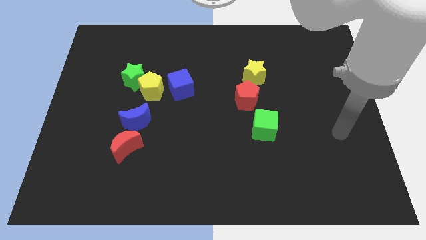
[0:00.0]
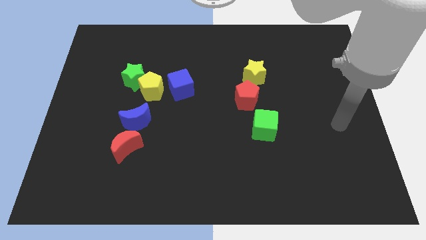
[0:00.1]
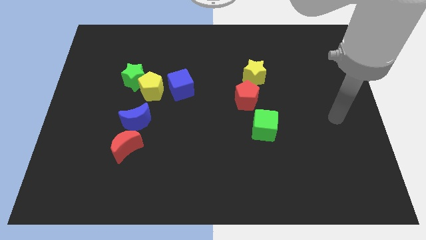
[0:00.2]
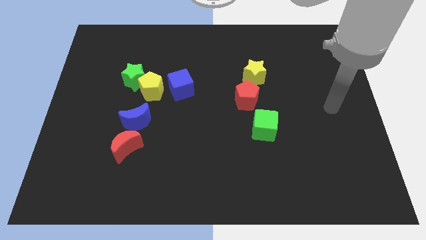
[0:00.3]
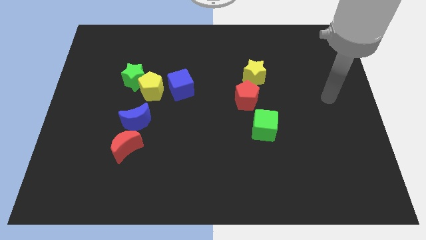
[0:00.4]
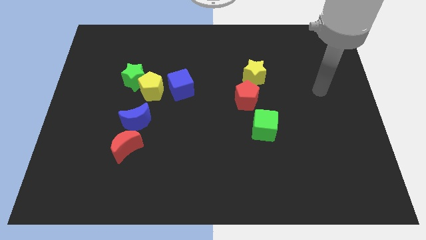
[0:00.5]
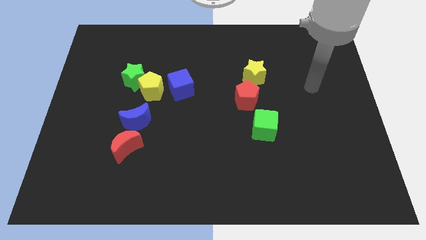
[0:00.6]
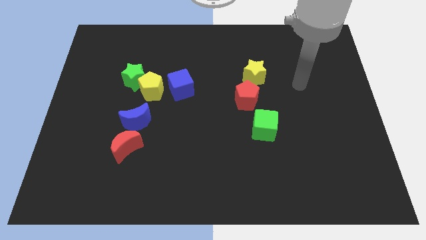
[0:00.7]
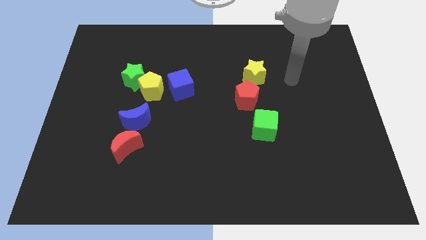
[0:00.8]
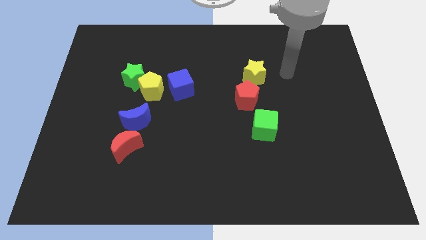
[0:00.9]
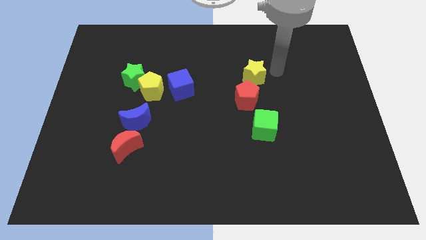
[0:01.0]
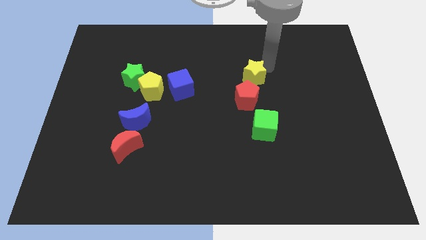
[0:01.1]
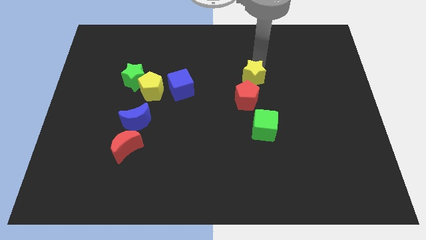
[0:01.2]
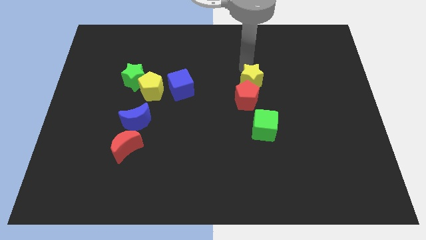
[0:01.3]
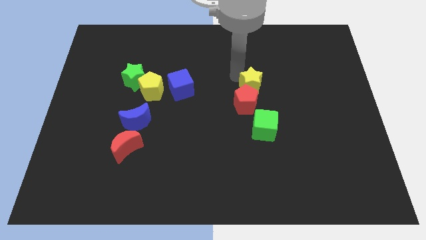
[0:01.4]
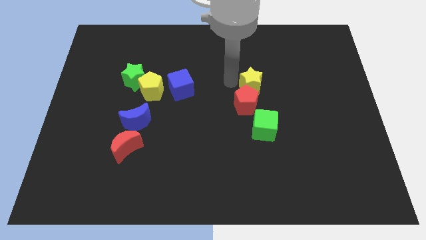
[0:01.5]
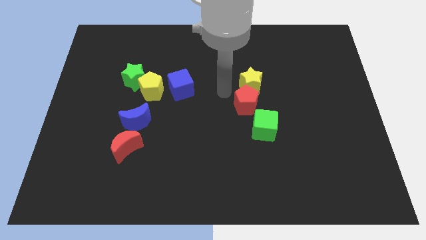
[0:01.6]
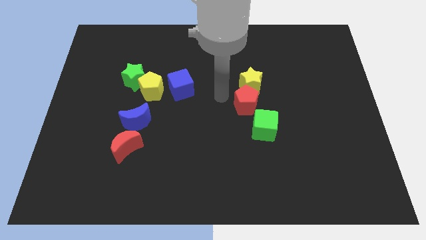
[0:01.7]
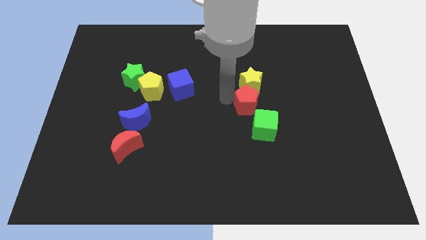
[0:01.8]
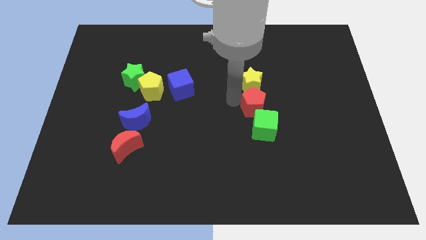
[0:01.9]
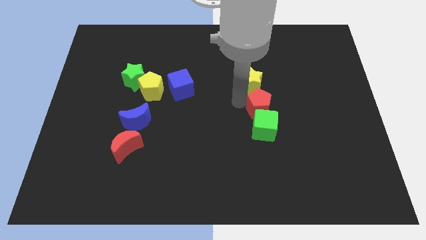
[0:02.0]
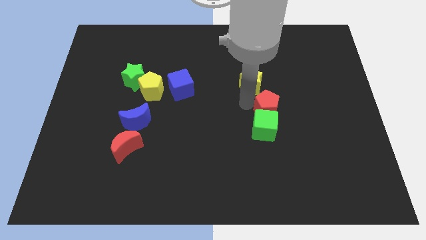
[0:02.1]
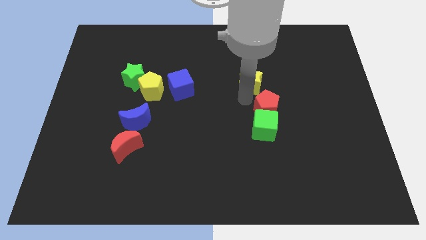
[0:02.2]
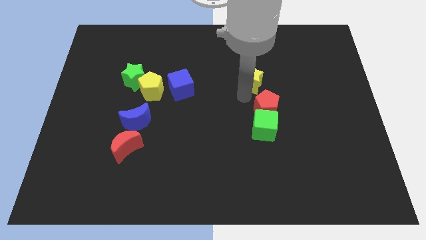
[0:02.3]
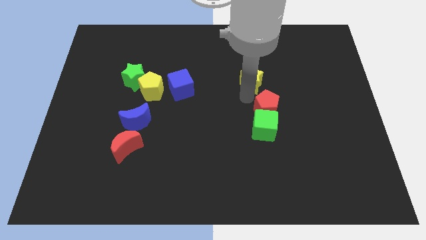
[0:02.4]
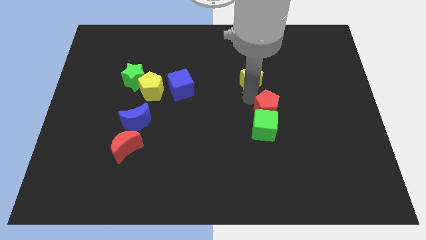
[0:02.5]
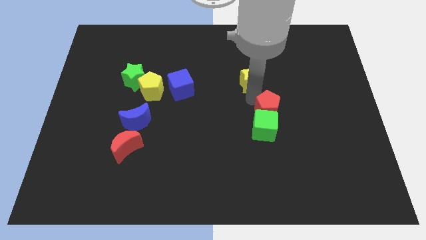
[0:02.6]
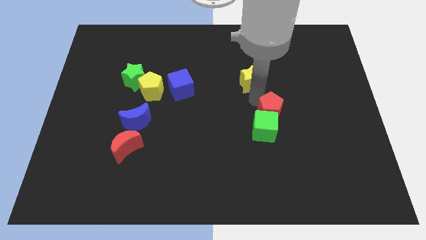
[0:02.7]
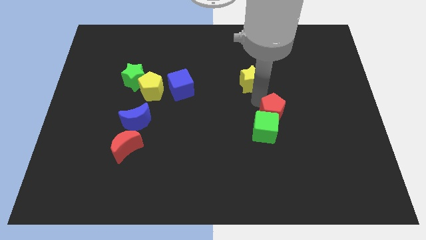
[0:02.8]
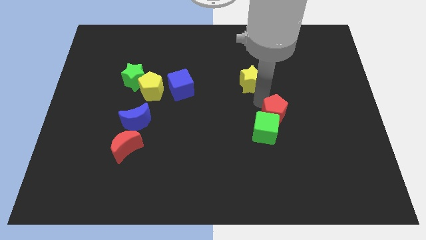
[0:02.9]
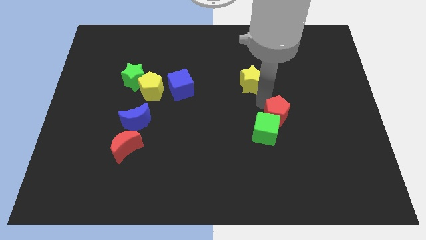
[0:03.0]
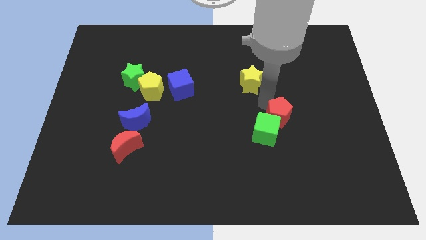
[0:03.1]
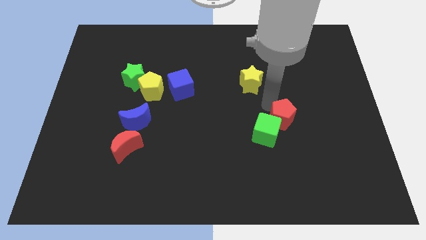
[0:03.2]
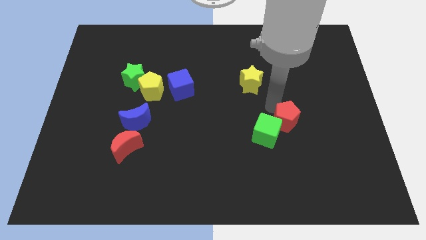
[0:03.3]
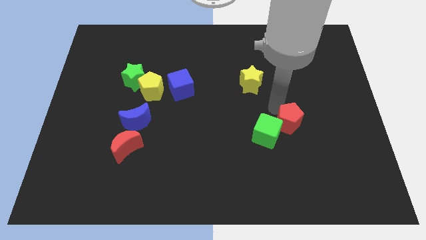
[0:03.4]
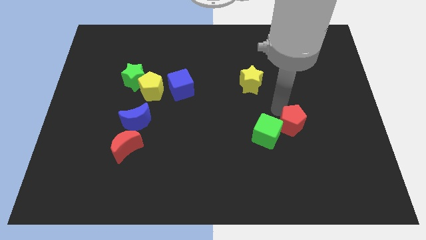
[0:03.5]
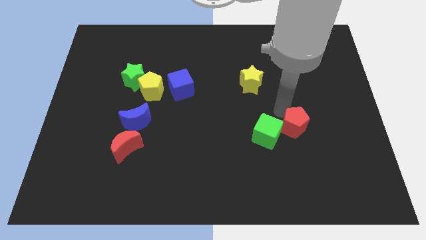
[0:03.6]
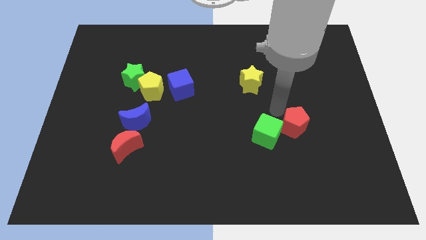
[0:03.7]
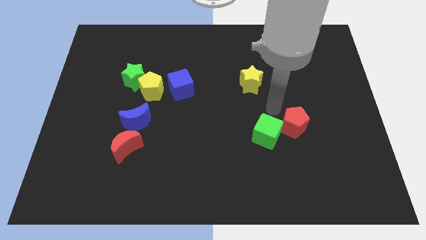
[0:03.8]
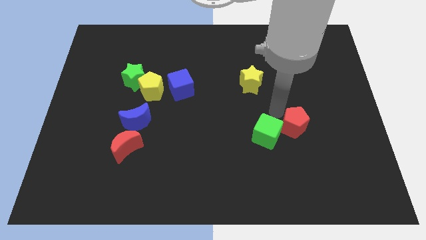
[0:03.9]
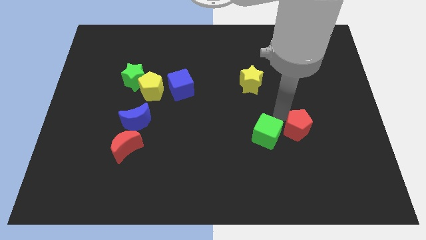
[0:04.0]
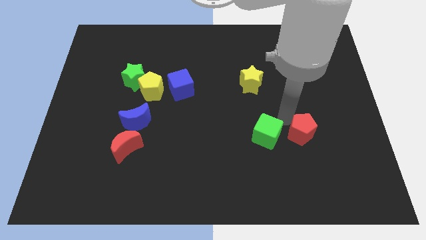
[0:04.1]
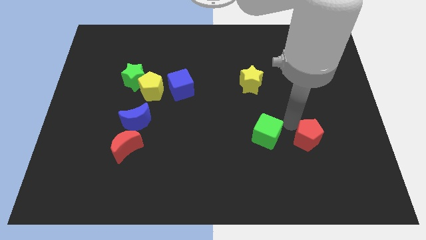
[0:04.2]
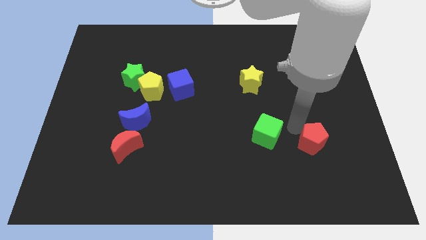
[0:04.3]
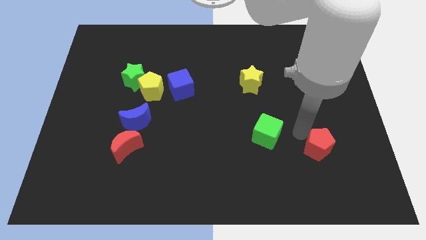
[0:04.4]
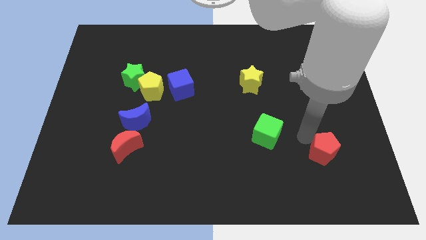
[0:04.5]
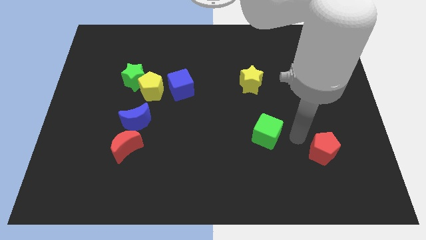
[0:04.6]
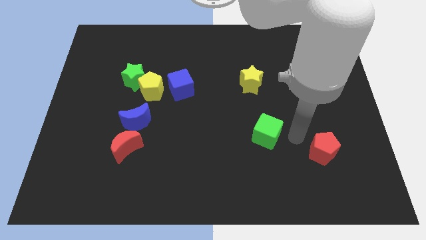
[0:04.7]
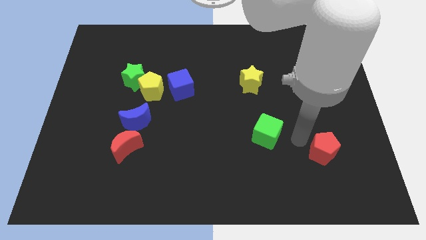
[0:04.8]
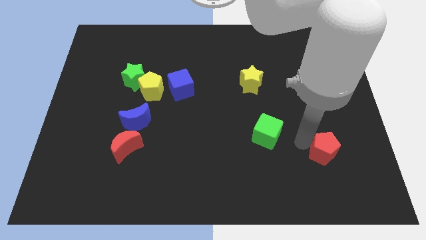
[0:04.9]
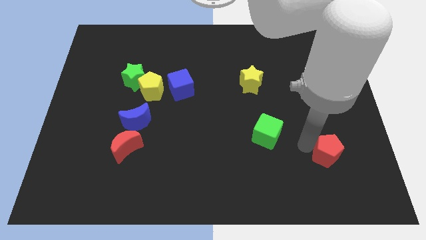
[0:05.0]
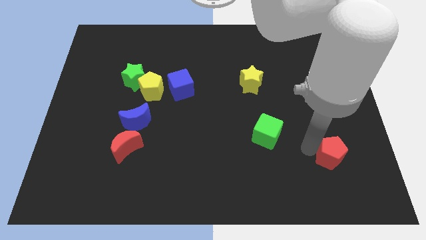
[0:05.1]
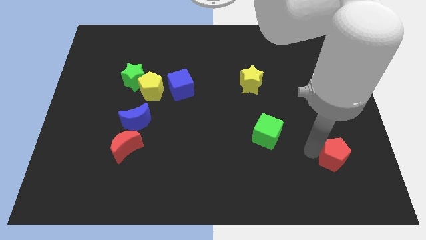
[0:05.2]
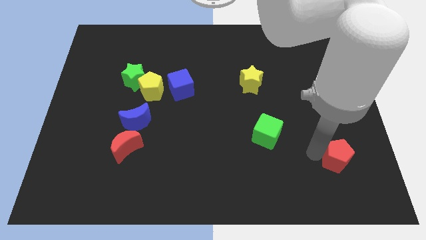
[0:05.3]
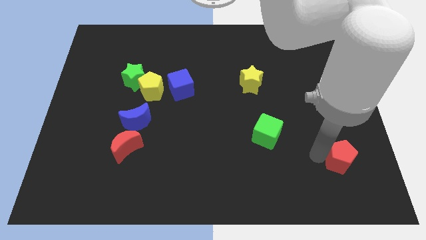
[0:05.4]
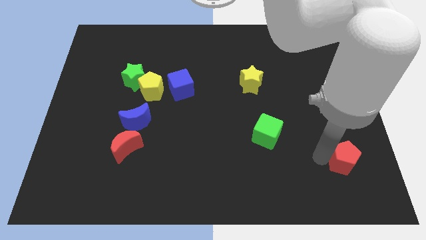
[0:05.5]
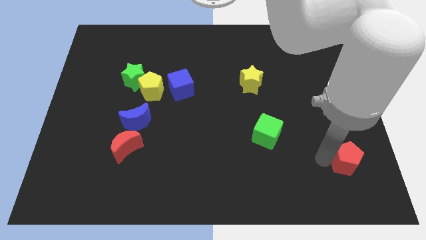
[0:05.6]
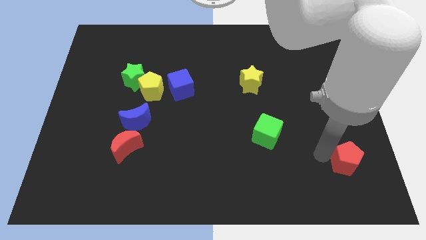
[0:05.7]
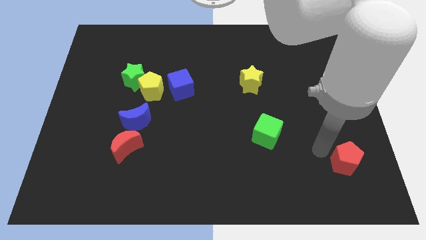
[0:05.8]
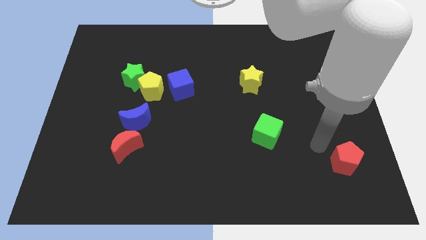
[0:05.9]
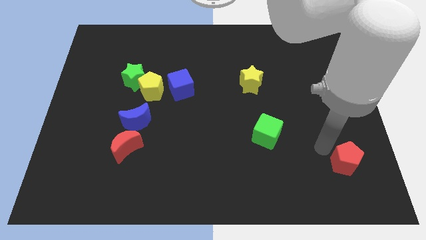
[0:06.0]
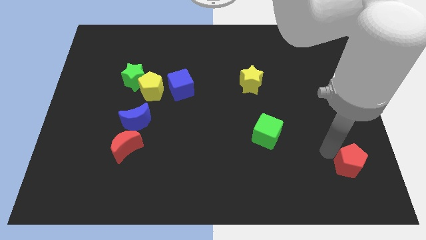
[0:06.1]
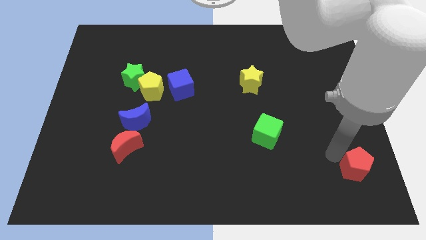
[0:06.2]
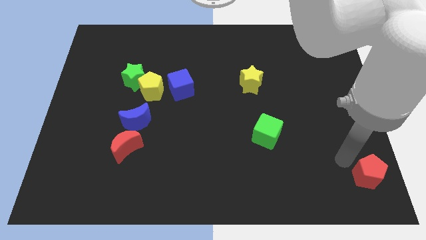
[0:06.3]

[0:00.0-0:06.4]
slide the red pentagon to the bottom right of the board

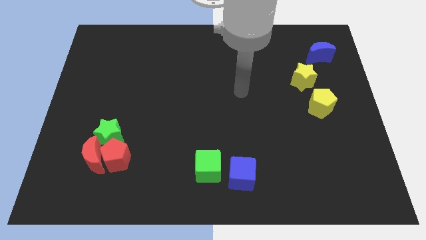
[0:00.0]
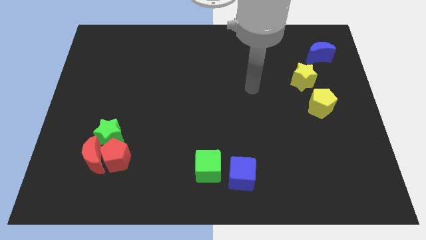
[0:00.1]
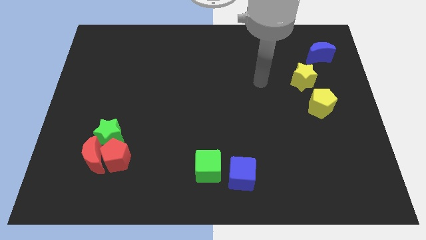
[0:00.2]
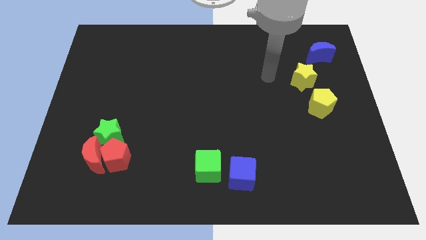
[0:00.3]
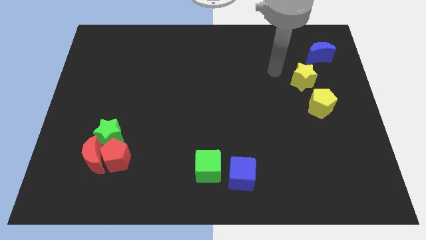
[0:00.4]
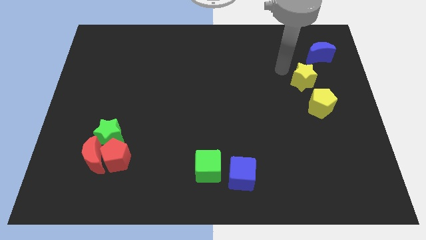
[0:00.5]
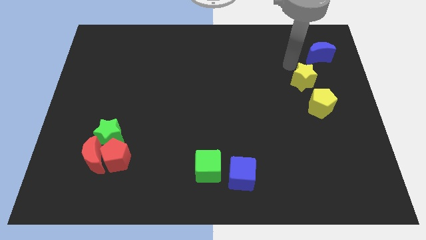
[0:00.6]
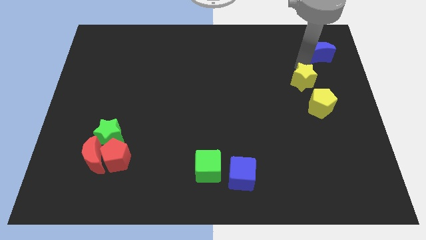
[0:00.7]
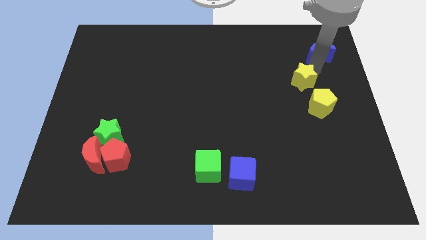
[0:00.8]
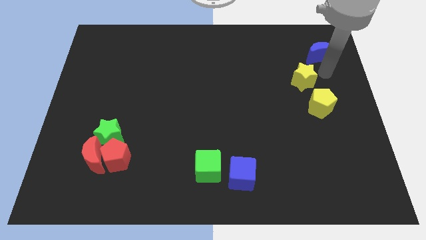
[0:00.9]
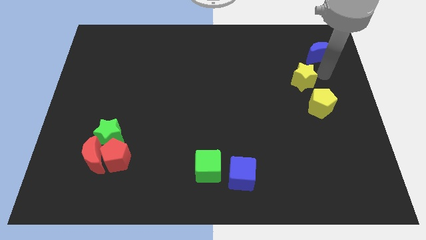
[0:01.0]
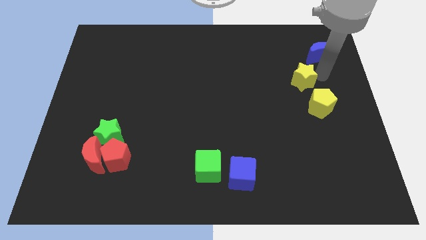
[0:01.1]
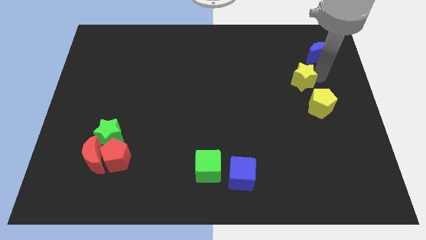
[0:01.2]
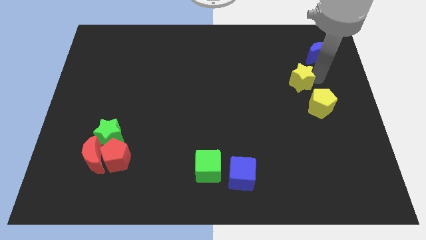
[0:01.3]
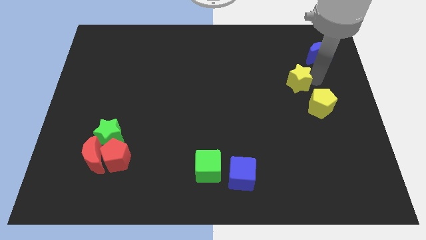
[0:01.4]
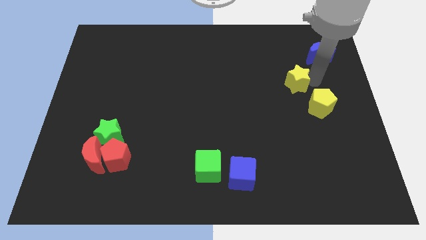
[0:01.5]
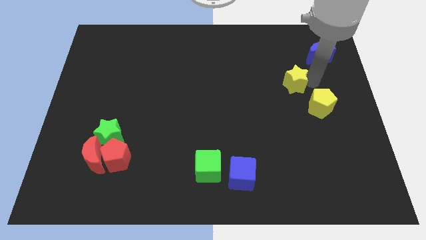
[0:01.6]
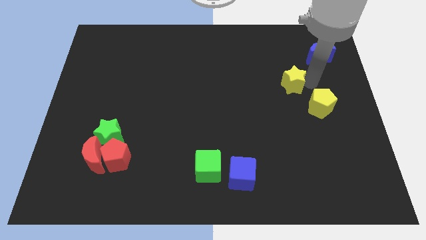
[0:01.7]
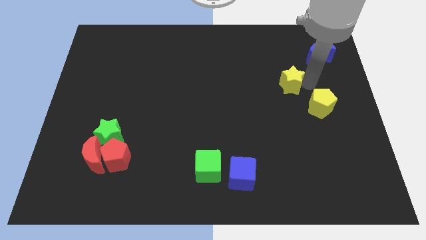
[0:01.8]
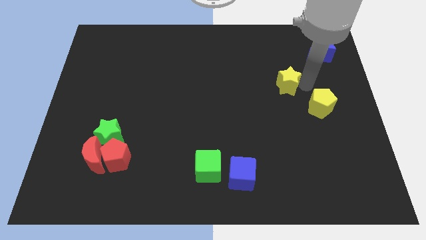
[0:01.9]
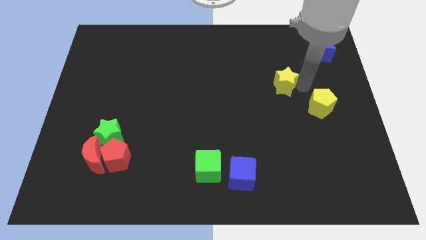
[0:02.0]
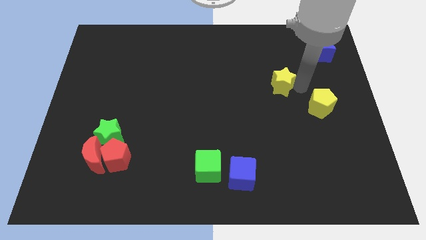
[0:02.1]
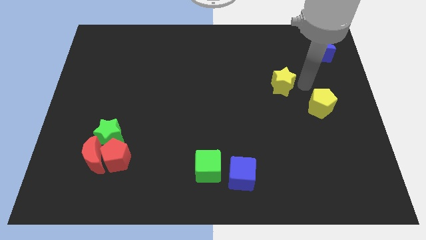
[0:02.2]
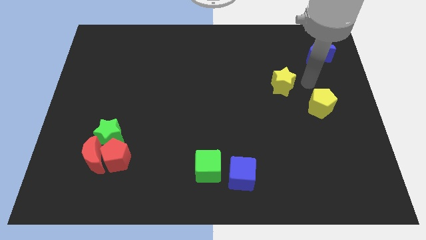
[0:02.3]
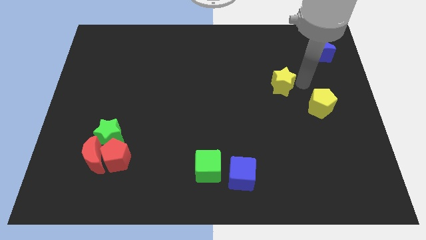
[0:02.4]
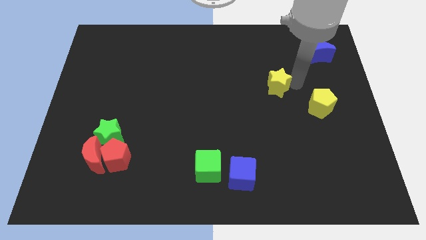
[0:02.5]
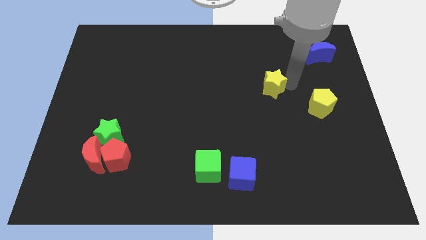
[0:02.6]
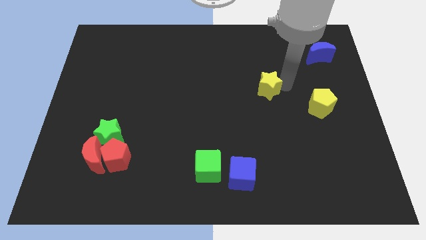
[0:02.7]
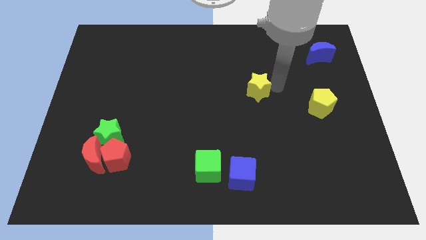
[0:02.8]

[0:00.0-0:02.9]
slide the yellow star to the center of the board
